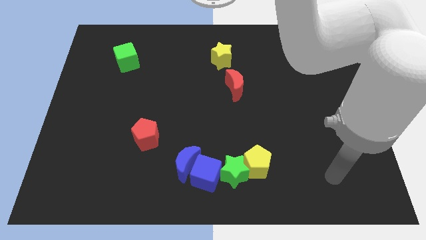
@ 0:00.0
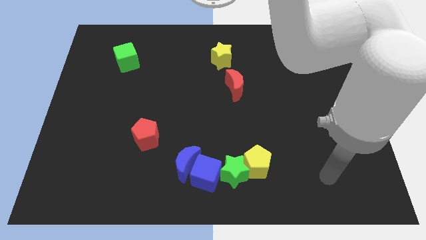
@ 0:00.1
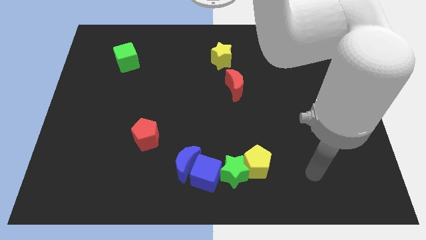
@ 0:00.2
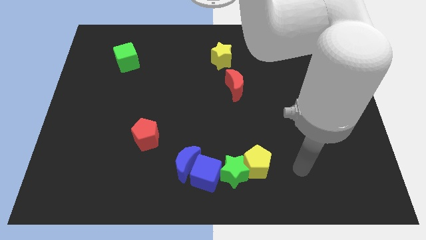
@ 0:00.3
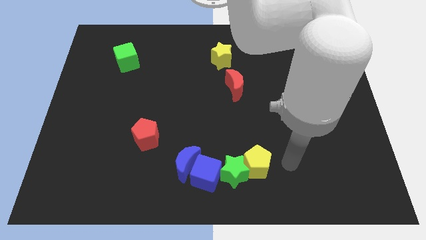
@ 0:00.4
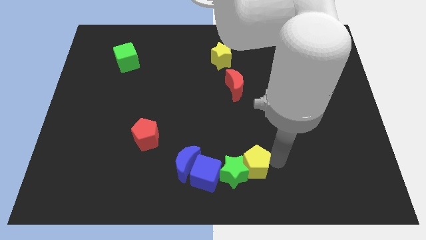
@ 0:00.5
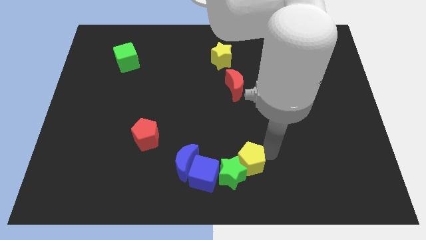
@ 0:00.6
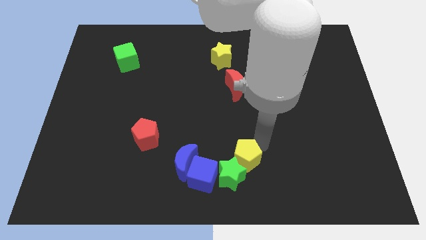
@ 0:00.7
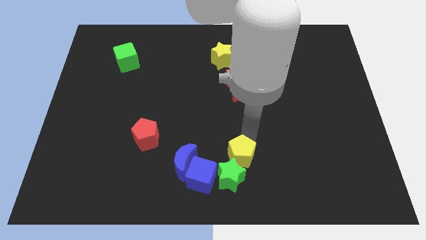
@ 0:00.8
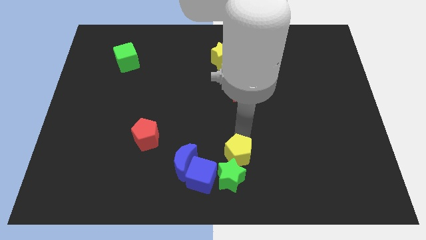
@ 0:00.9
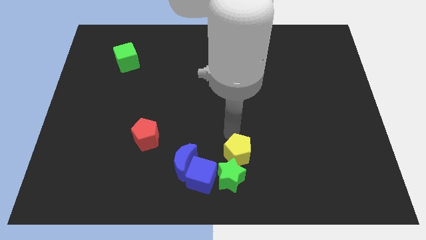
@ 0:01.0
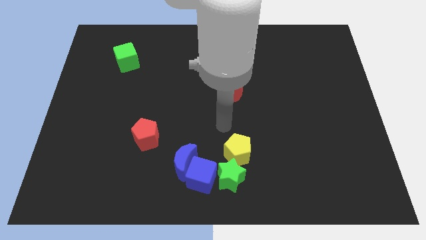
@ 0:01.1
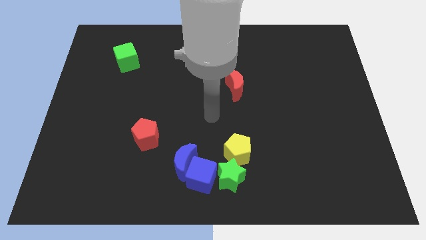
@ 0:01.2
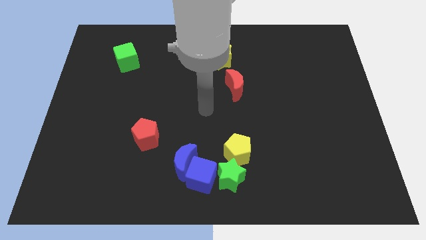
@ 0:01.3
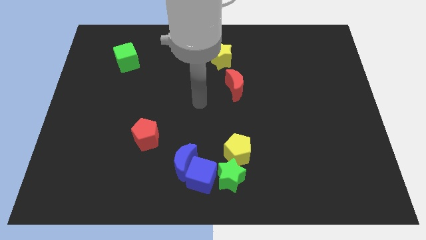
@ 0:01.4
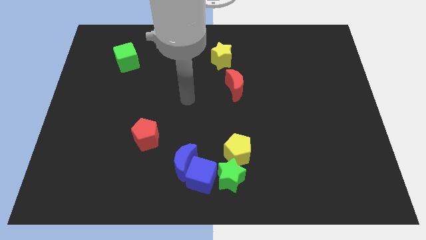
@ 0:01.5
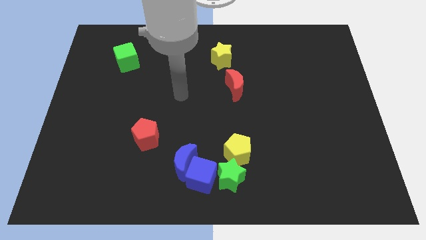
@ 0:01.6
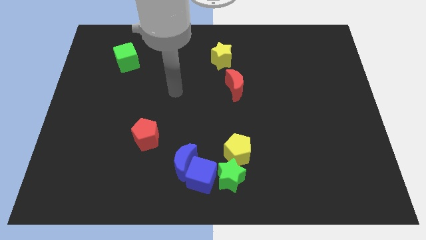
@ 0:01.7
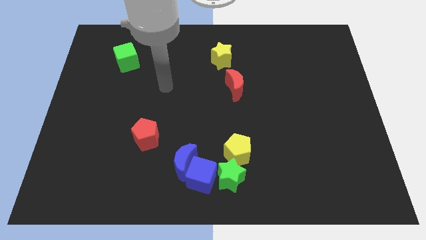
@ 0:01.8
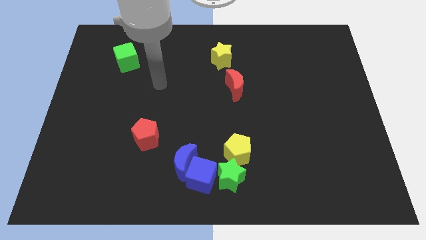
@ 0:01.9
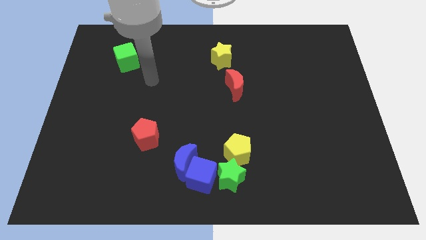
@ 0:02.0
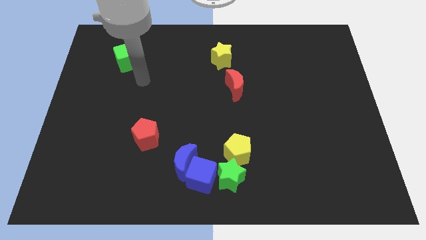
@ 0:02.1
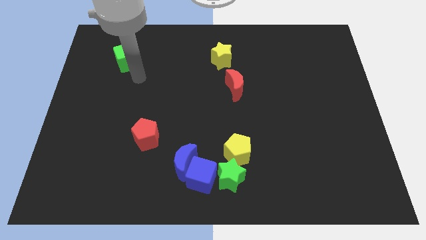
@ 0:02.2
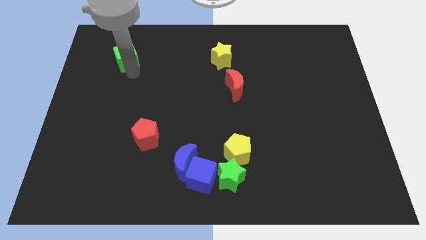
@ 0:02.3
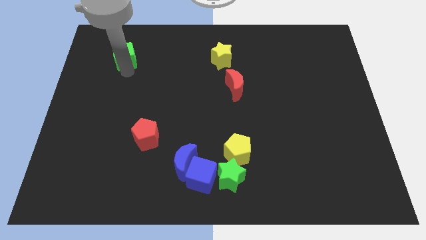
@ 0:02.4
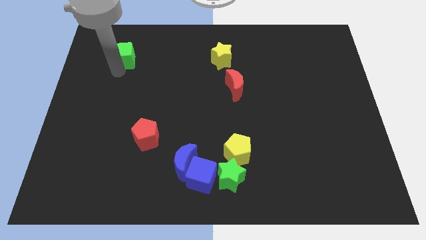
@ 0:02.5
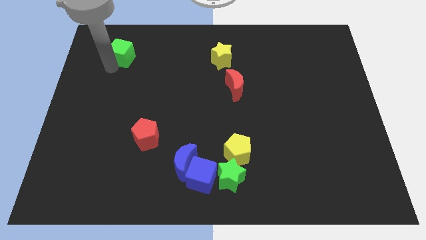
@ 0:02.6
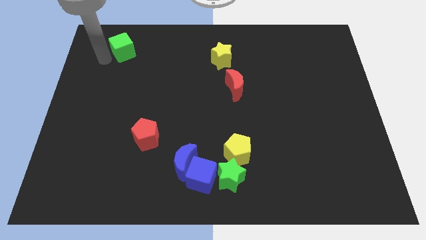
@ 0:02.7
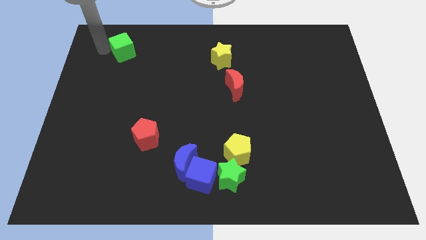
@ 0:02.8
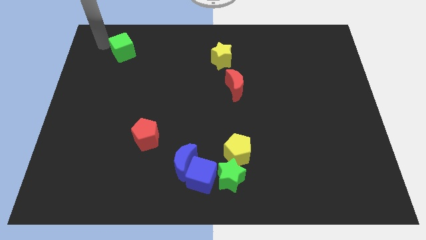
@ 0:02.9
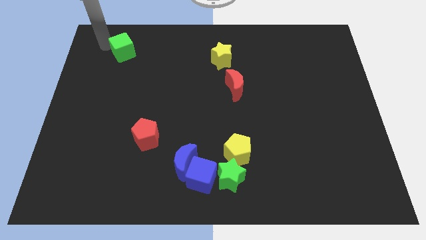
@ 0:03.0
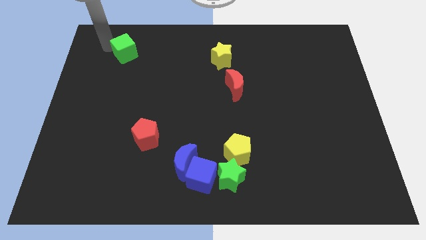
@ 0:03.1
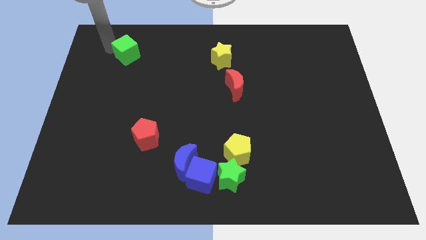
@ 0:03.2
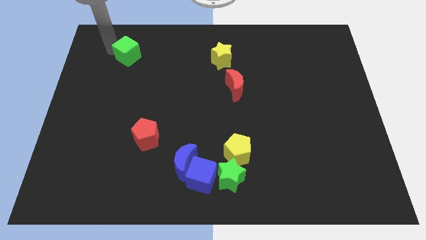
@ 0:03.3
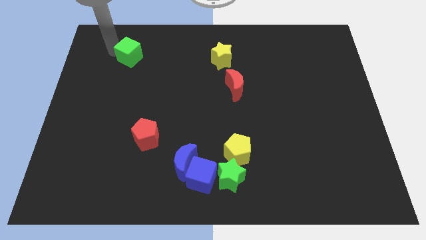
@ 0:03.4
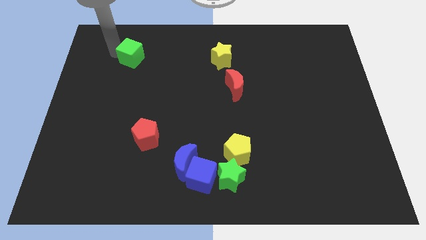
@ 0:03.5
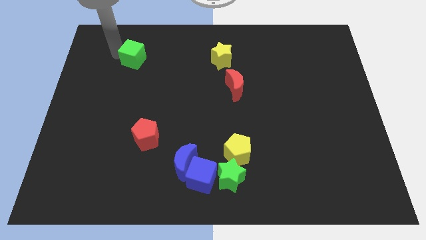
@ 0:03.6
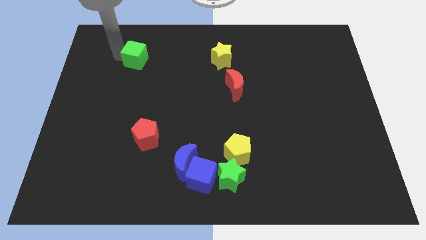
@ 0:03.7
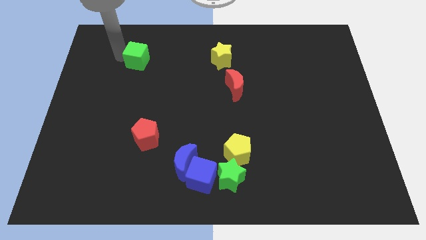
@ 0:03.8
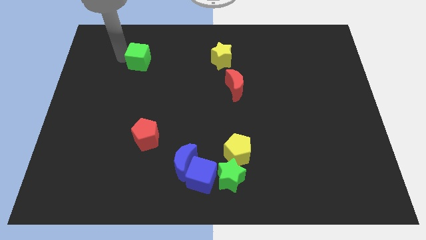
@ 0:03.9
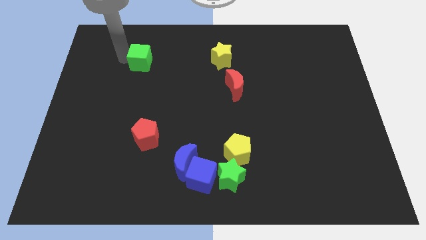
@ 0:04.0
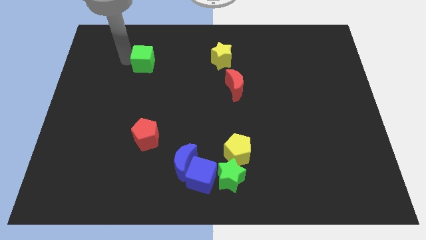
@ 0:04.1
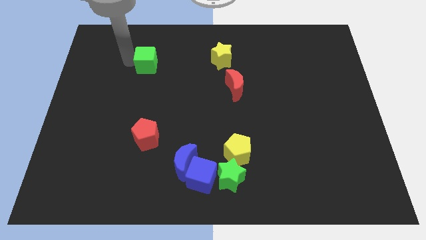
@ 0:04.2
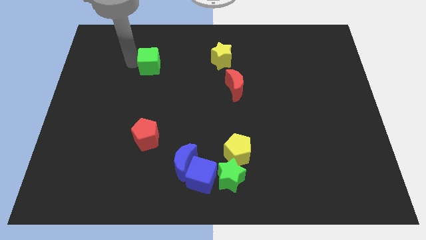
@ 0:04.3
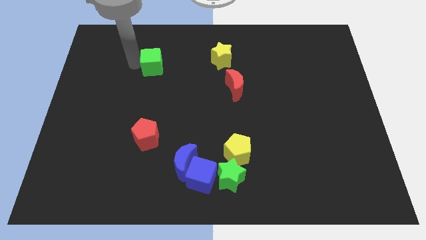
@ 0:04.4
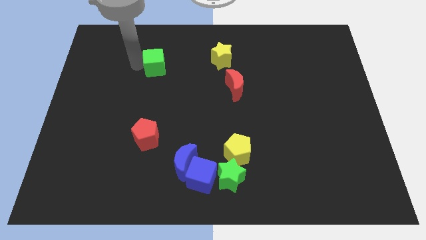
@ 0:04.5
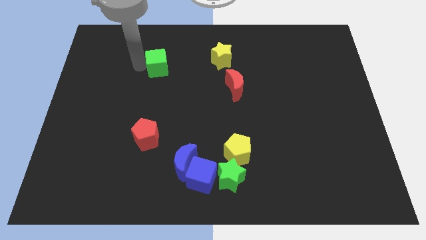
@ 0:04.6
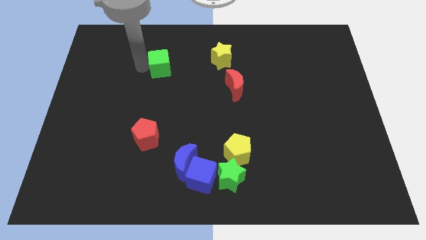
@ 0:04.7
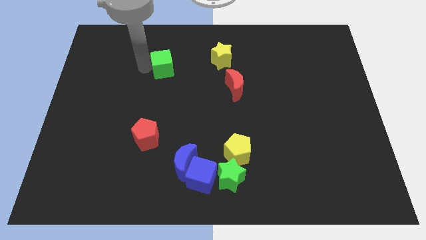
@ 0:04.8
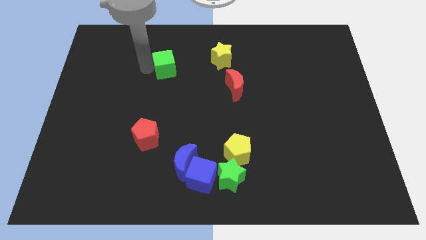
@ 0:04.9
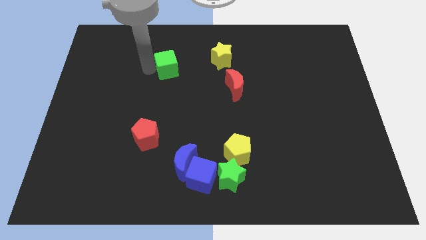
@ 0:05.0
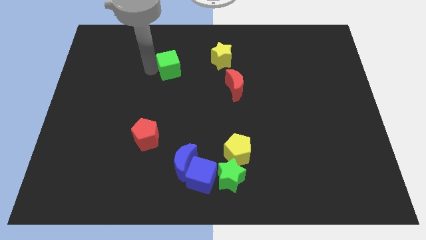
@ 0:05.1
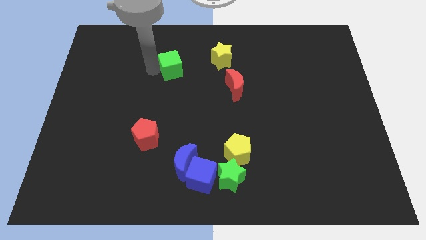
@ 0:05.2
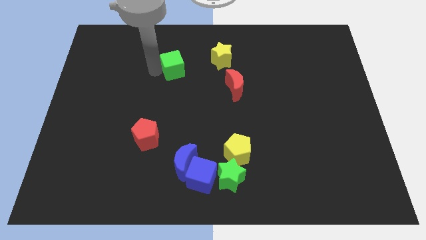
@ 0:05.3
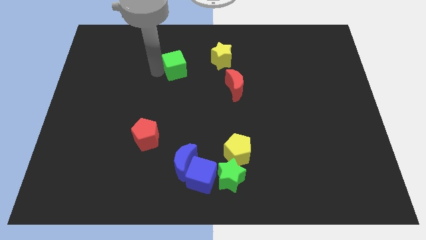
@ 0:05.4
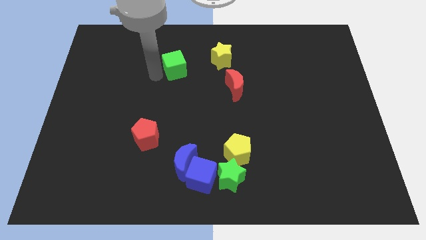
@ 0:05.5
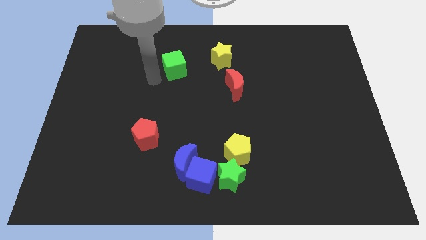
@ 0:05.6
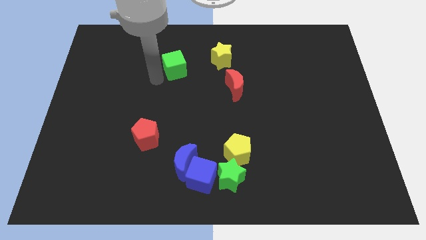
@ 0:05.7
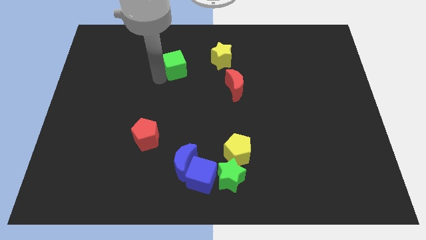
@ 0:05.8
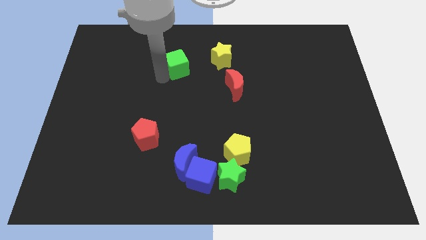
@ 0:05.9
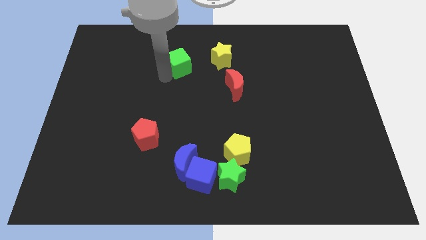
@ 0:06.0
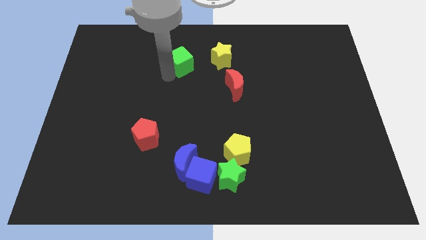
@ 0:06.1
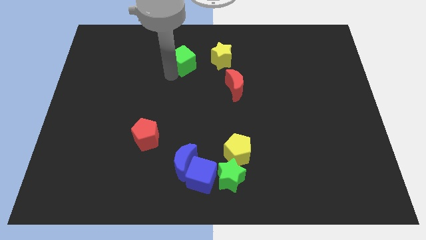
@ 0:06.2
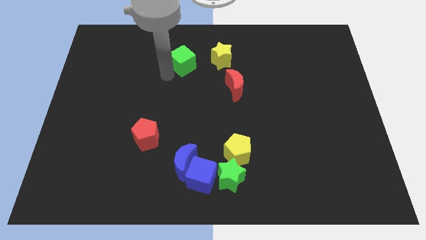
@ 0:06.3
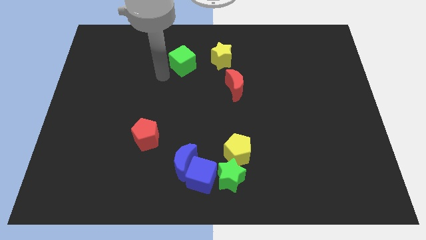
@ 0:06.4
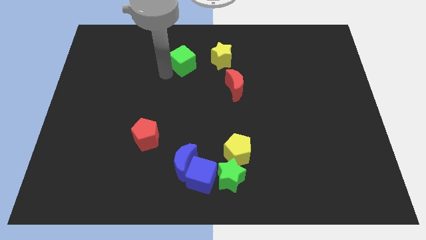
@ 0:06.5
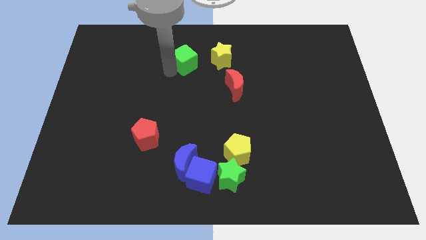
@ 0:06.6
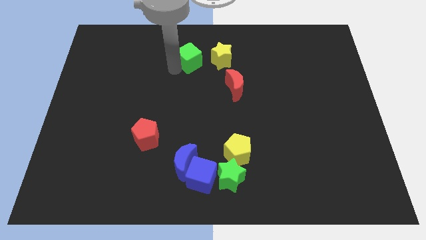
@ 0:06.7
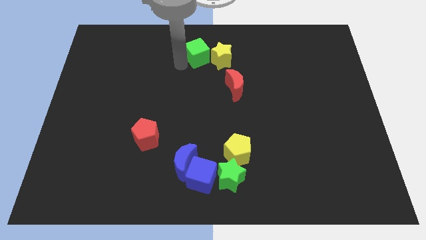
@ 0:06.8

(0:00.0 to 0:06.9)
push the green cube towards the yellow star
